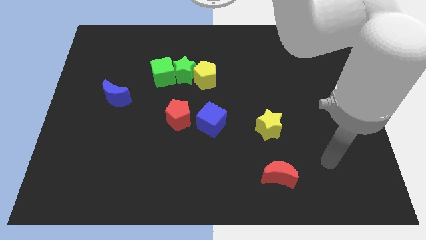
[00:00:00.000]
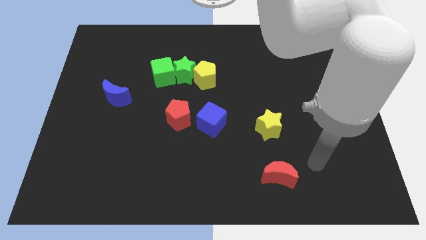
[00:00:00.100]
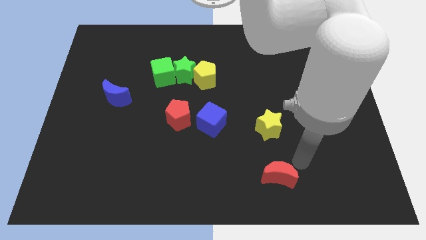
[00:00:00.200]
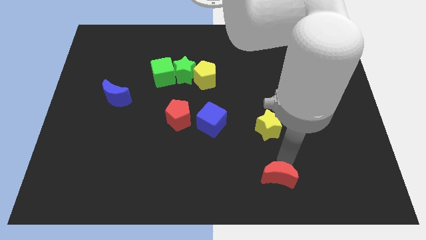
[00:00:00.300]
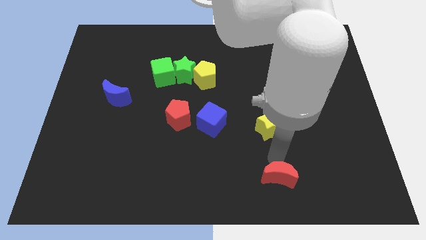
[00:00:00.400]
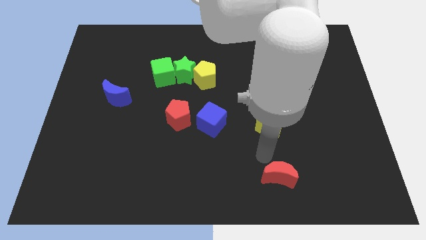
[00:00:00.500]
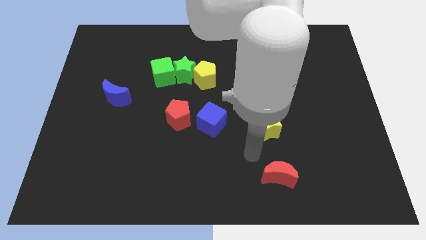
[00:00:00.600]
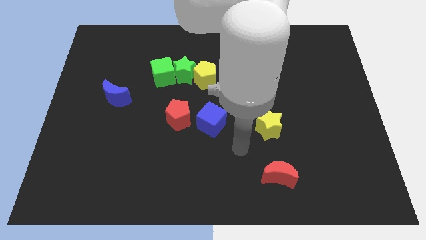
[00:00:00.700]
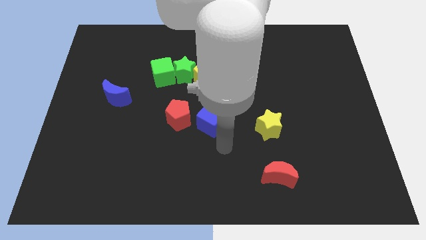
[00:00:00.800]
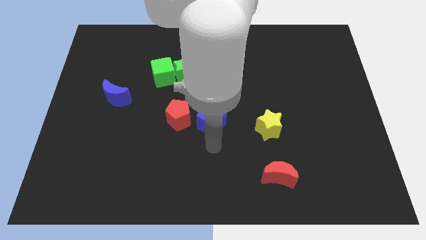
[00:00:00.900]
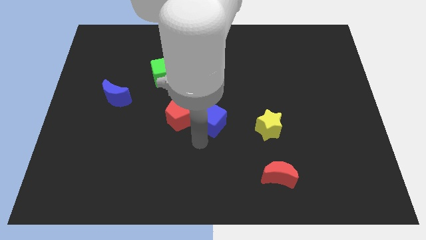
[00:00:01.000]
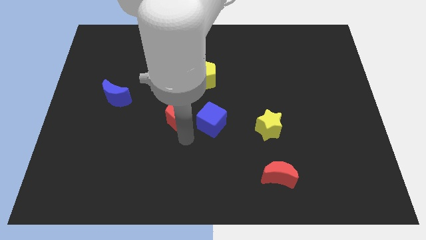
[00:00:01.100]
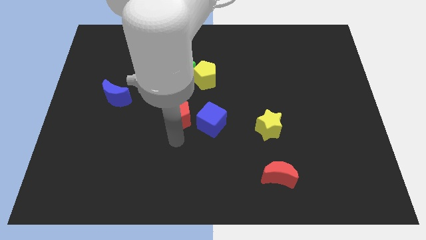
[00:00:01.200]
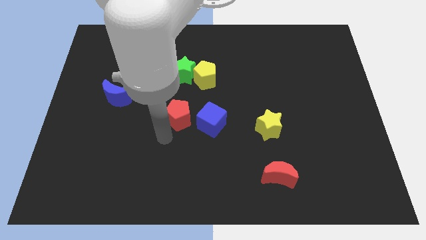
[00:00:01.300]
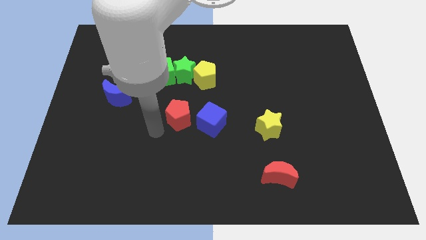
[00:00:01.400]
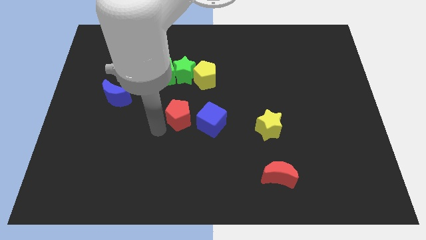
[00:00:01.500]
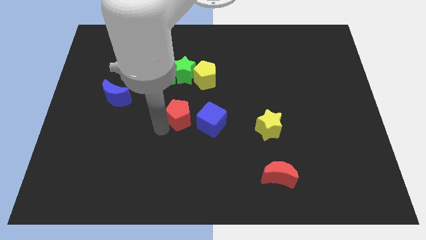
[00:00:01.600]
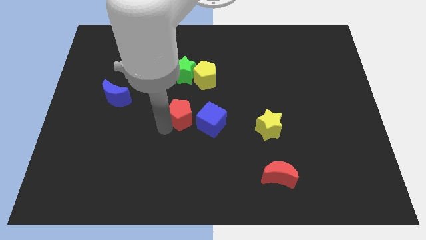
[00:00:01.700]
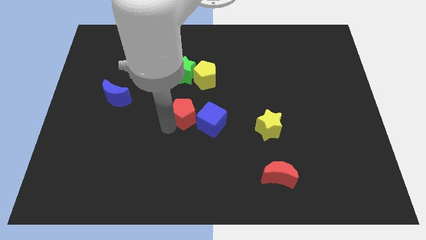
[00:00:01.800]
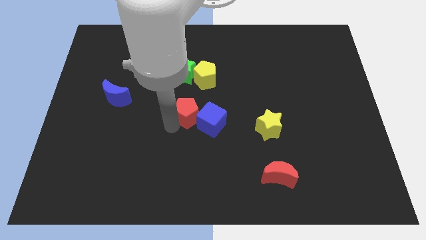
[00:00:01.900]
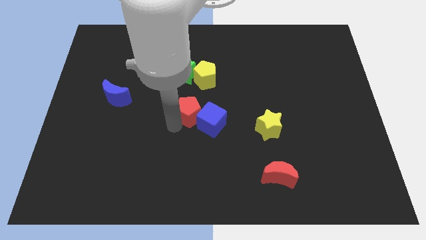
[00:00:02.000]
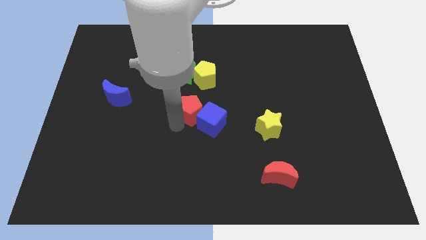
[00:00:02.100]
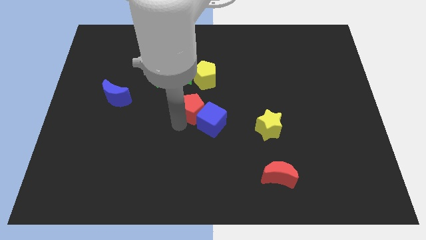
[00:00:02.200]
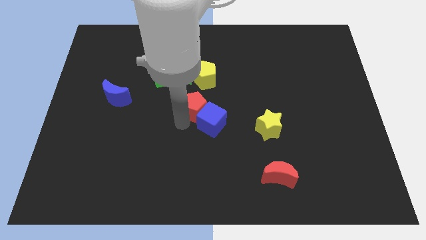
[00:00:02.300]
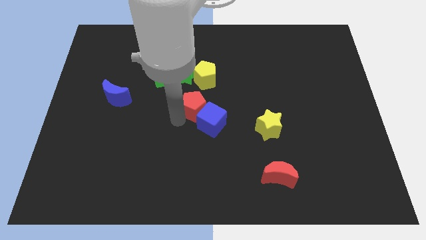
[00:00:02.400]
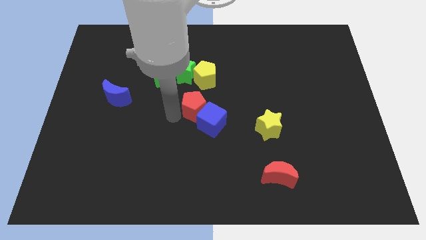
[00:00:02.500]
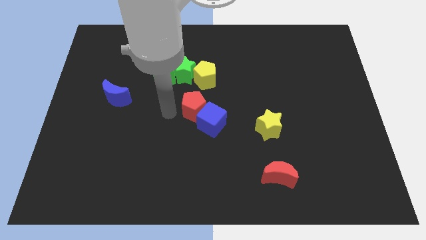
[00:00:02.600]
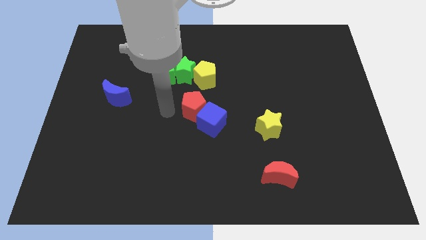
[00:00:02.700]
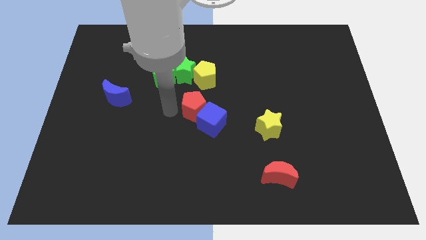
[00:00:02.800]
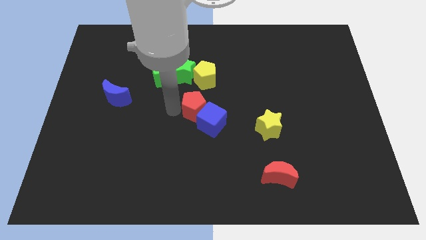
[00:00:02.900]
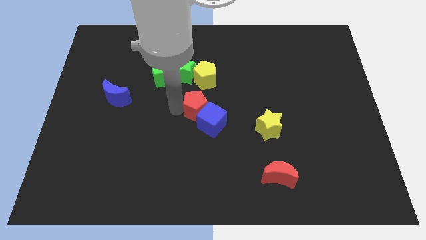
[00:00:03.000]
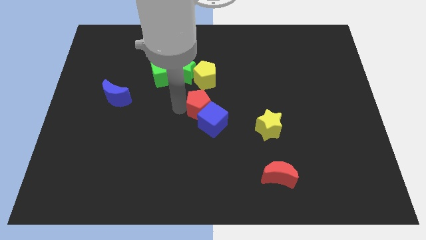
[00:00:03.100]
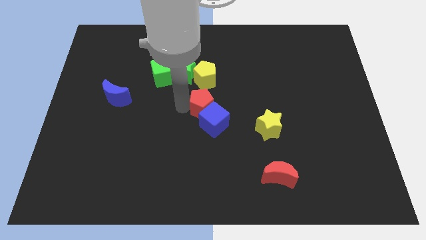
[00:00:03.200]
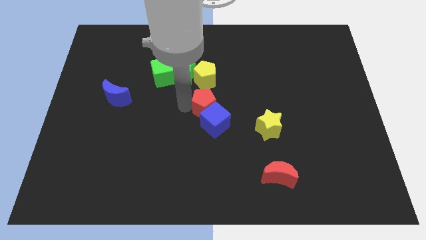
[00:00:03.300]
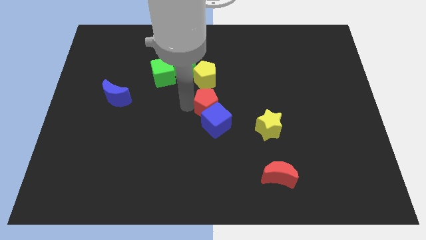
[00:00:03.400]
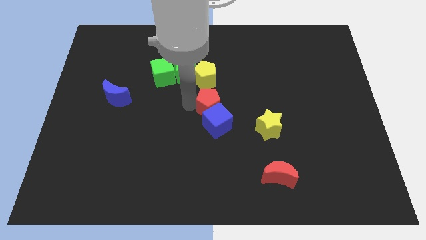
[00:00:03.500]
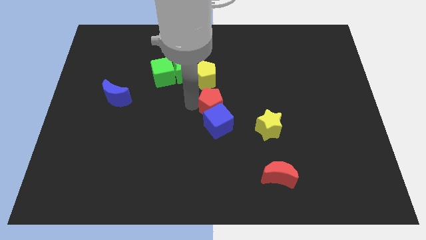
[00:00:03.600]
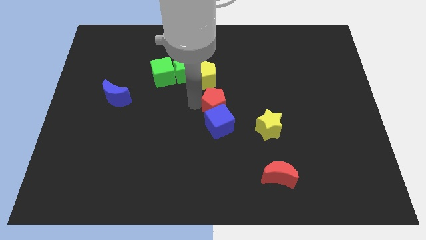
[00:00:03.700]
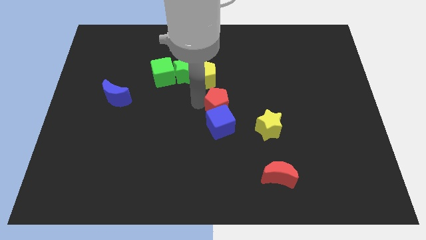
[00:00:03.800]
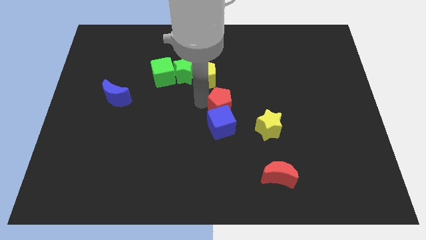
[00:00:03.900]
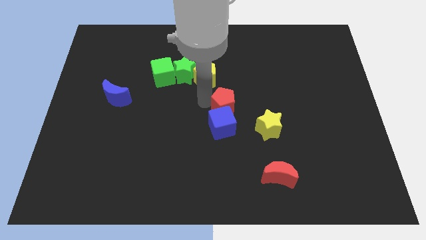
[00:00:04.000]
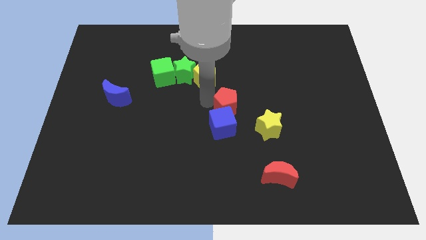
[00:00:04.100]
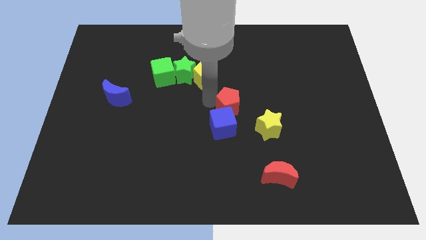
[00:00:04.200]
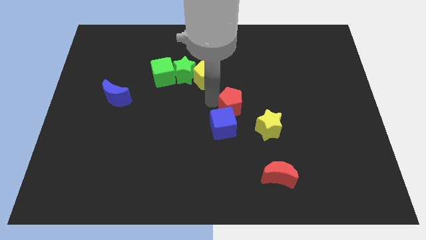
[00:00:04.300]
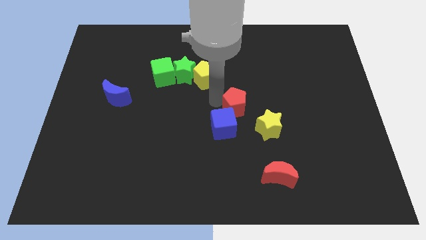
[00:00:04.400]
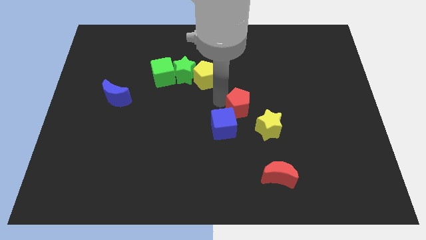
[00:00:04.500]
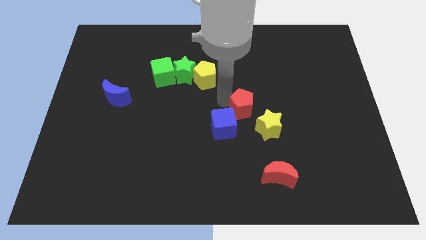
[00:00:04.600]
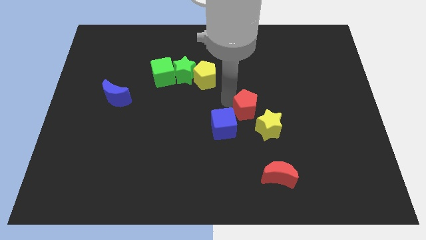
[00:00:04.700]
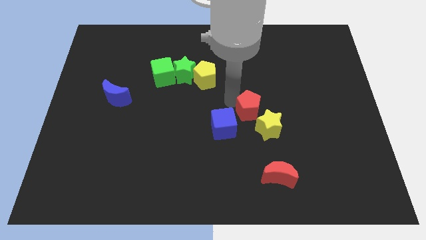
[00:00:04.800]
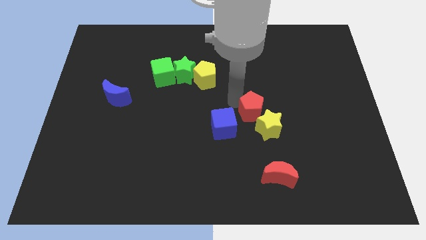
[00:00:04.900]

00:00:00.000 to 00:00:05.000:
put the red pentagon to the yellow star

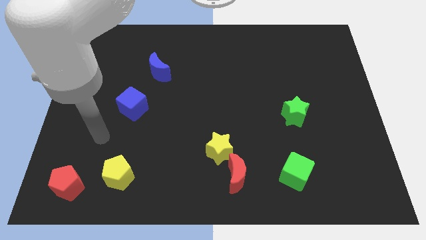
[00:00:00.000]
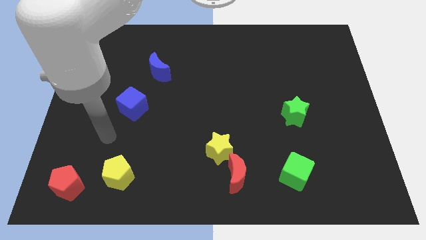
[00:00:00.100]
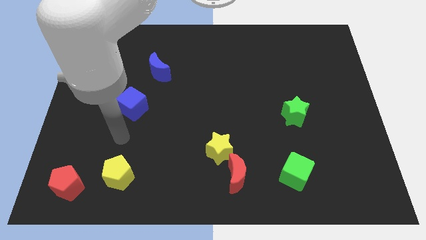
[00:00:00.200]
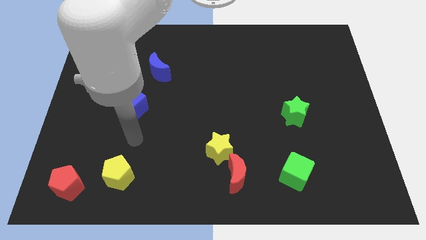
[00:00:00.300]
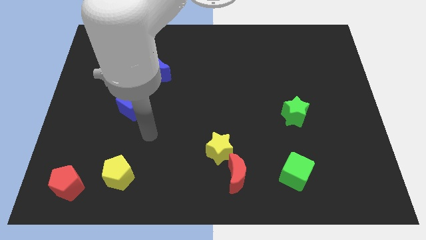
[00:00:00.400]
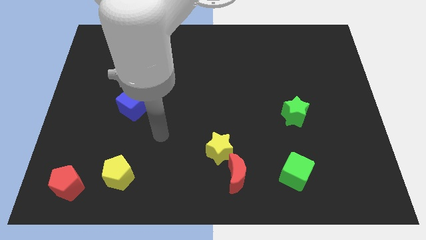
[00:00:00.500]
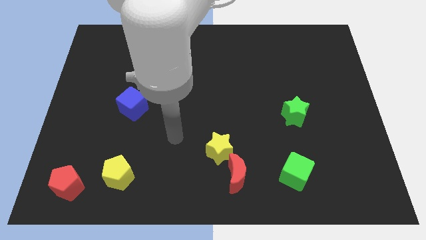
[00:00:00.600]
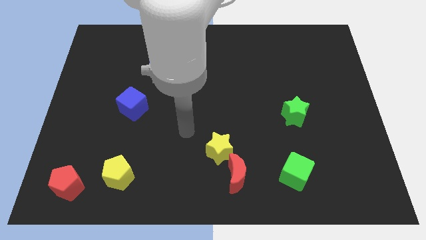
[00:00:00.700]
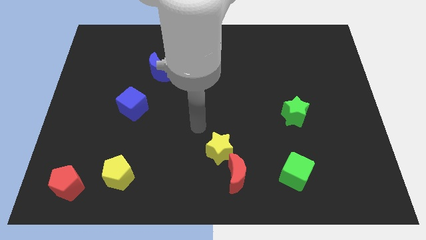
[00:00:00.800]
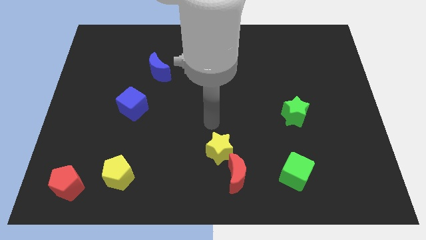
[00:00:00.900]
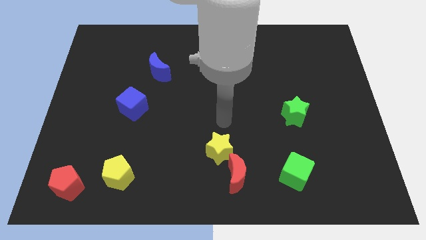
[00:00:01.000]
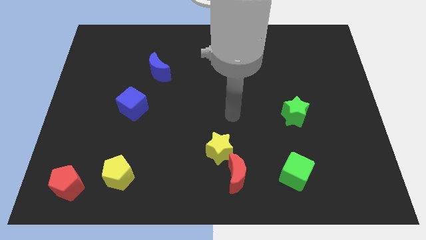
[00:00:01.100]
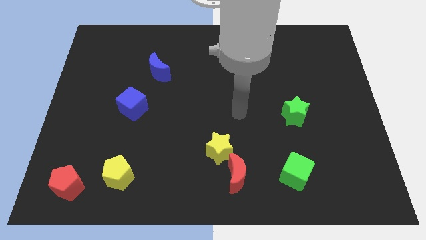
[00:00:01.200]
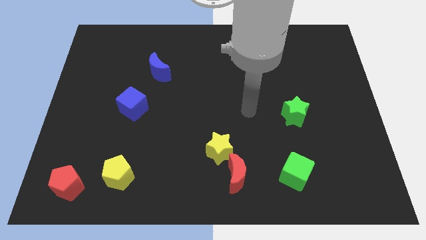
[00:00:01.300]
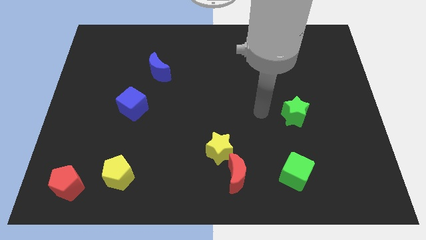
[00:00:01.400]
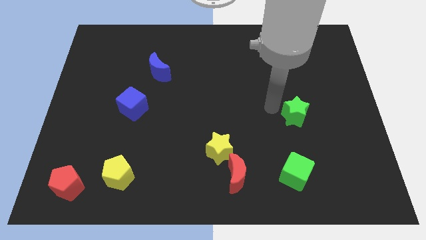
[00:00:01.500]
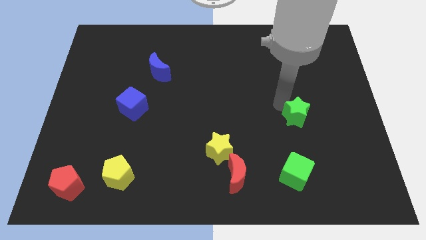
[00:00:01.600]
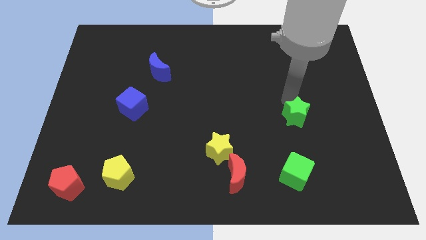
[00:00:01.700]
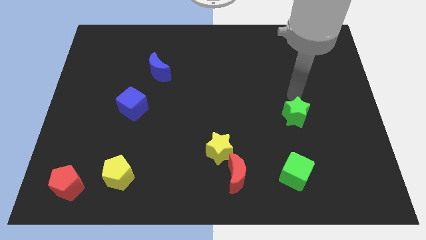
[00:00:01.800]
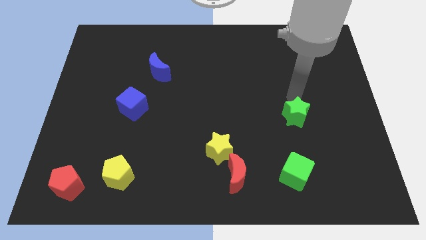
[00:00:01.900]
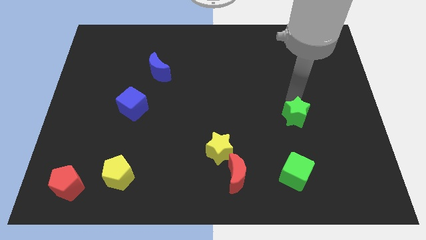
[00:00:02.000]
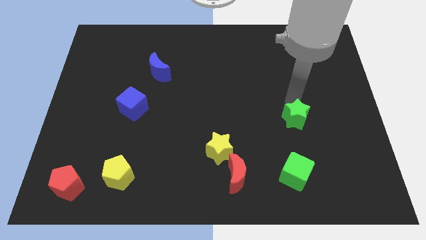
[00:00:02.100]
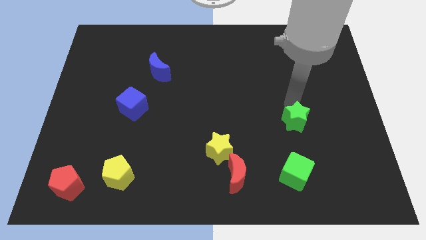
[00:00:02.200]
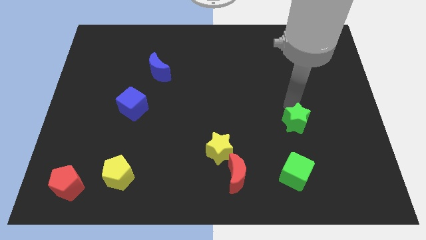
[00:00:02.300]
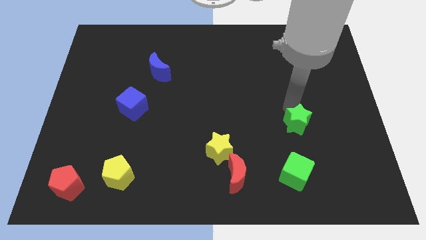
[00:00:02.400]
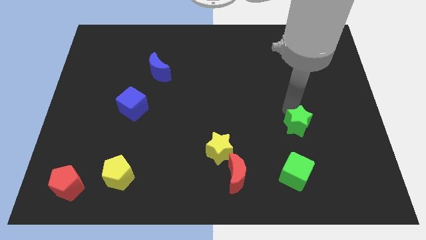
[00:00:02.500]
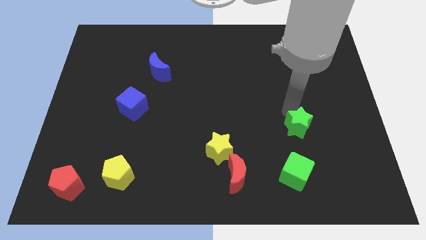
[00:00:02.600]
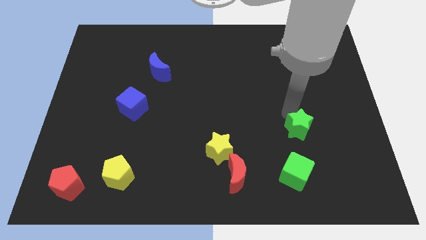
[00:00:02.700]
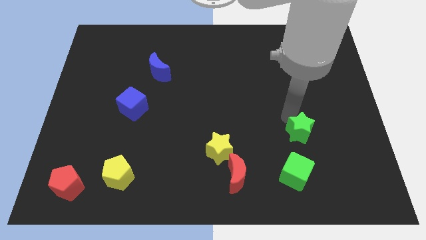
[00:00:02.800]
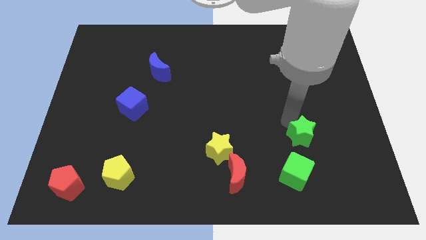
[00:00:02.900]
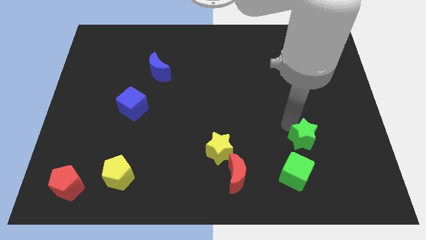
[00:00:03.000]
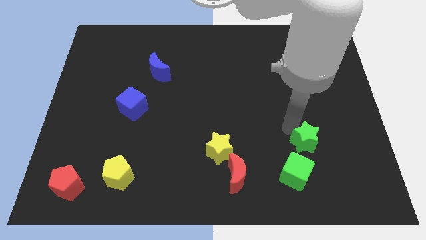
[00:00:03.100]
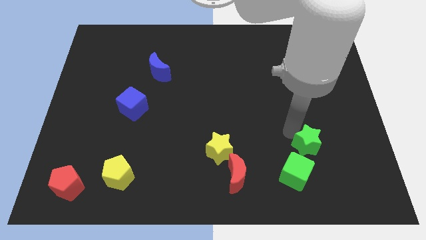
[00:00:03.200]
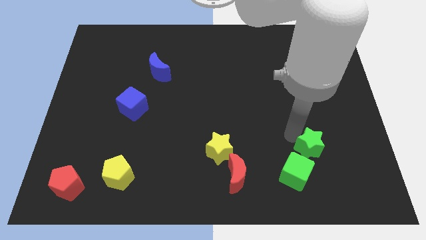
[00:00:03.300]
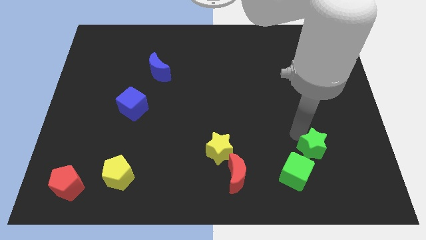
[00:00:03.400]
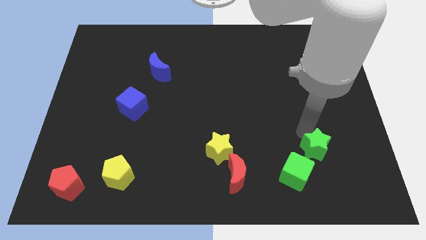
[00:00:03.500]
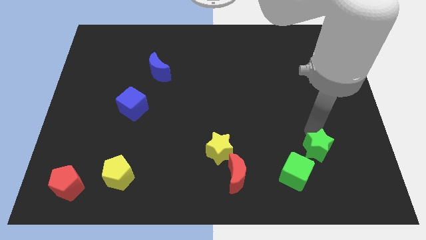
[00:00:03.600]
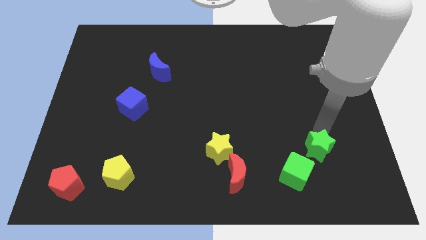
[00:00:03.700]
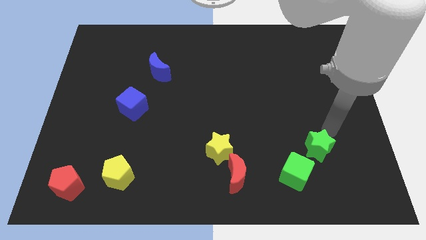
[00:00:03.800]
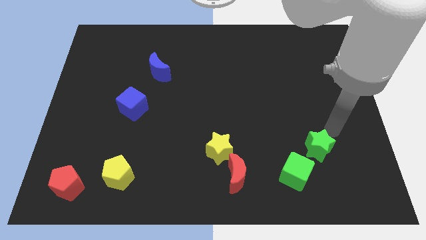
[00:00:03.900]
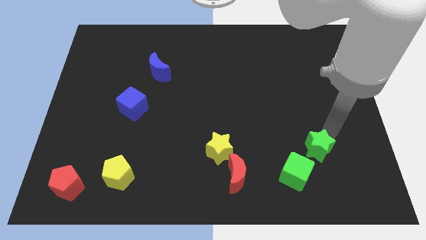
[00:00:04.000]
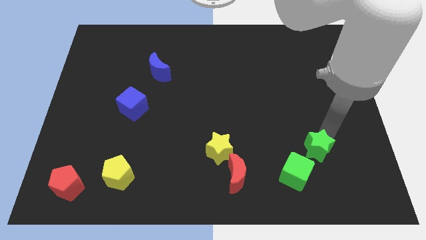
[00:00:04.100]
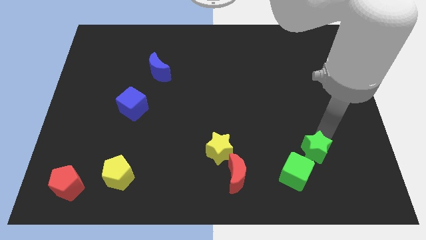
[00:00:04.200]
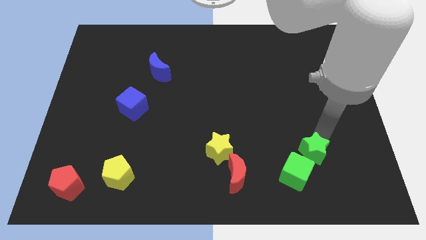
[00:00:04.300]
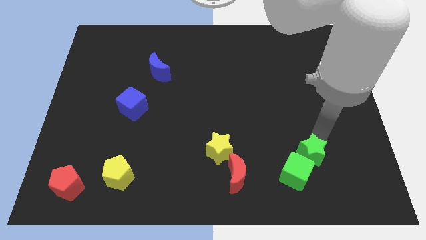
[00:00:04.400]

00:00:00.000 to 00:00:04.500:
put the green star next to the green cube
